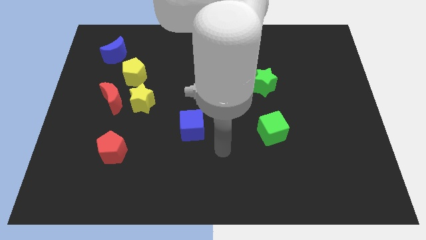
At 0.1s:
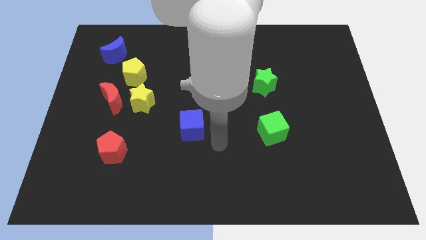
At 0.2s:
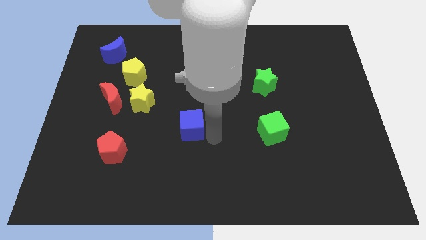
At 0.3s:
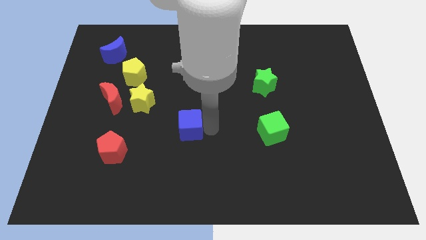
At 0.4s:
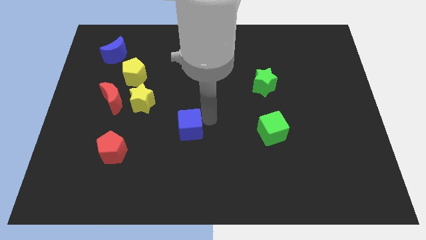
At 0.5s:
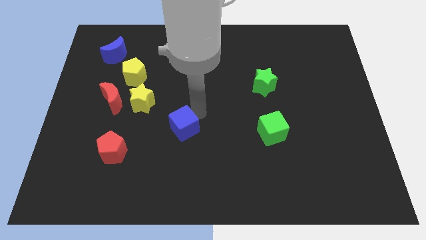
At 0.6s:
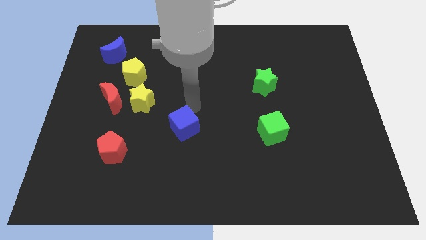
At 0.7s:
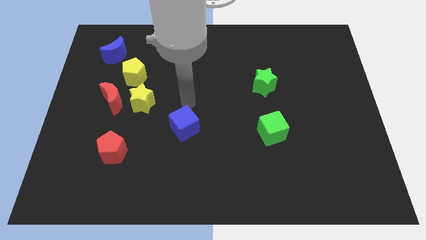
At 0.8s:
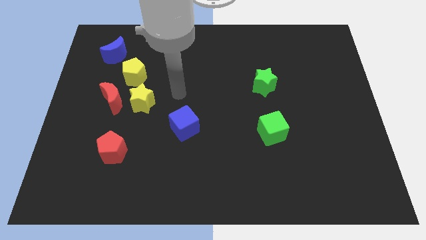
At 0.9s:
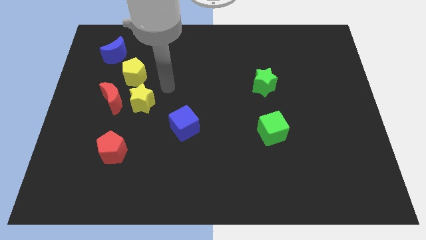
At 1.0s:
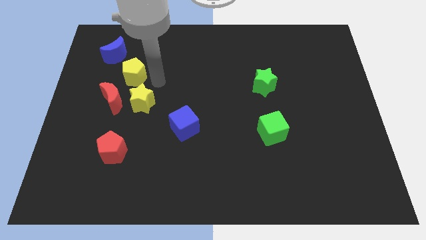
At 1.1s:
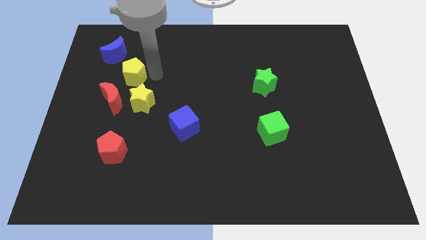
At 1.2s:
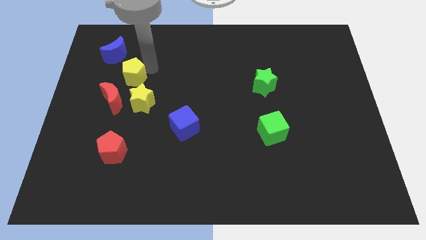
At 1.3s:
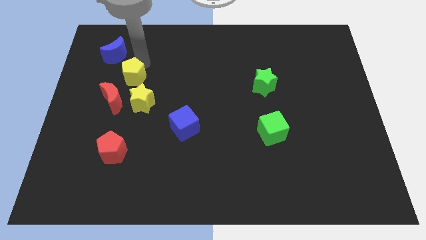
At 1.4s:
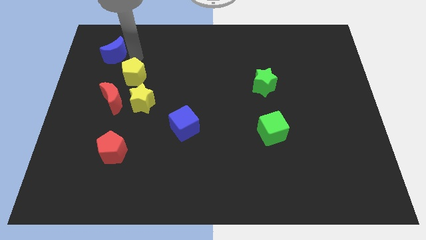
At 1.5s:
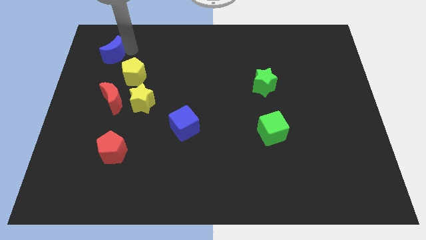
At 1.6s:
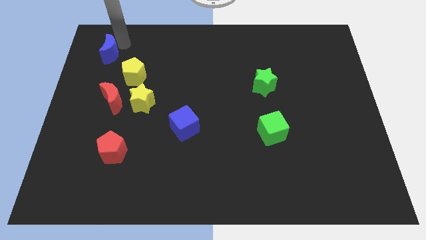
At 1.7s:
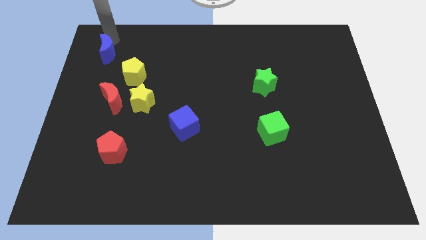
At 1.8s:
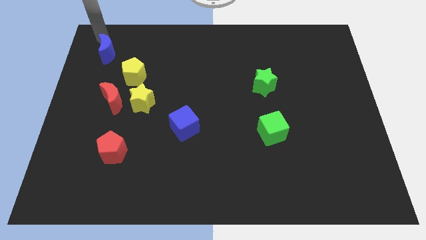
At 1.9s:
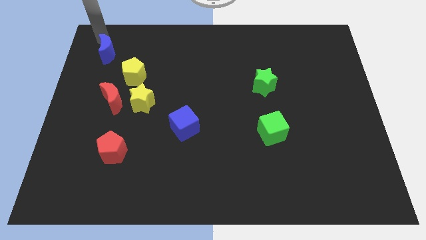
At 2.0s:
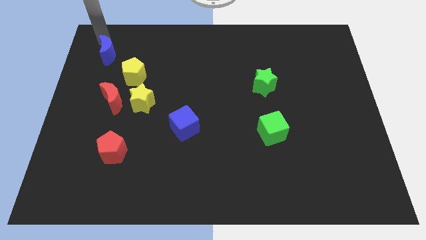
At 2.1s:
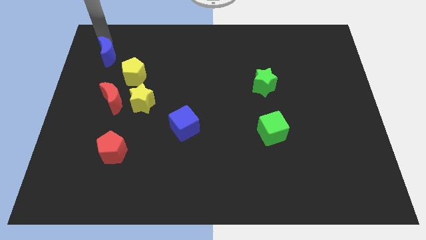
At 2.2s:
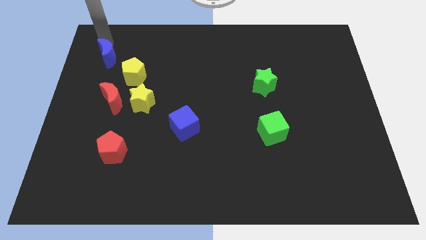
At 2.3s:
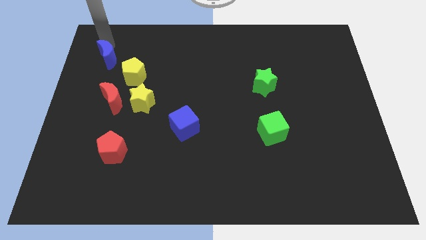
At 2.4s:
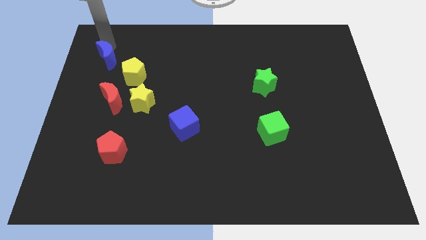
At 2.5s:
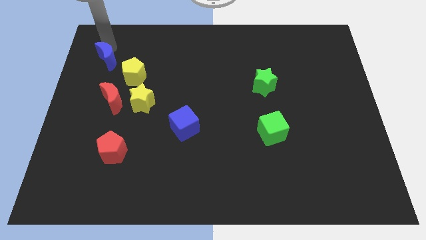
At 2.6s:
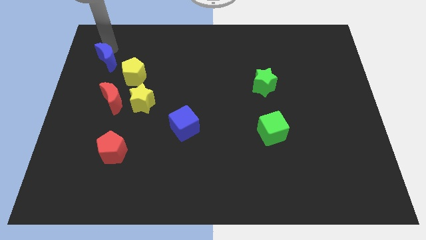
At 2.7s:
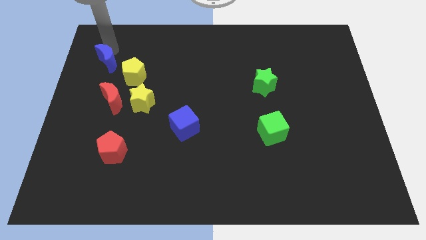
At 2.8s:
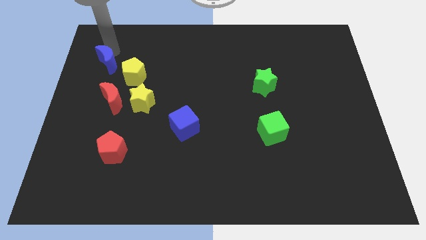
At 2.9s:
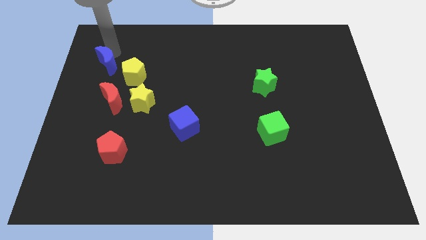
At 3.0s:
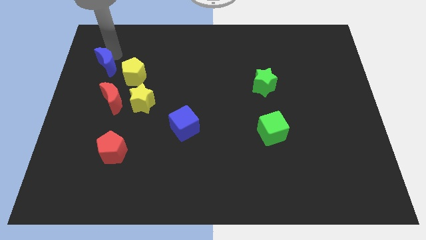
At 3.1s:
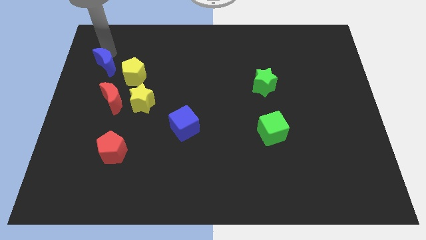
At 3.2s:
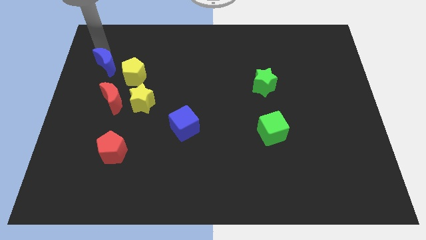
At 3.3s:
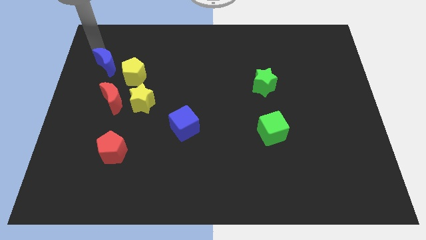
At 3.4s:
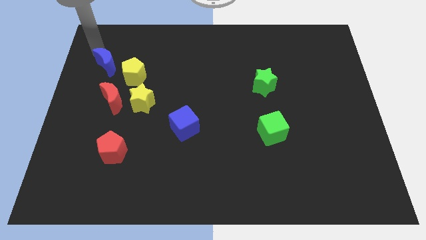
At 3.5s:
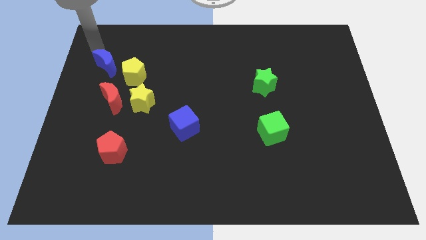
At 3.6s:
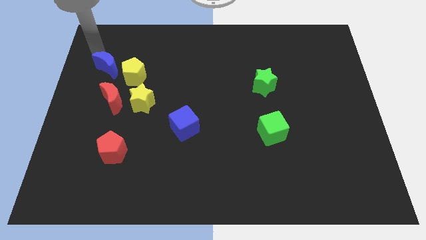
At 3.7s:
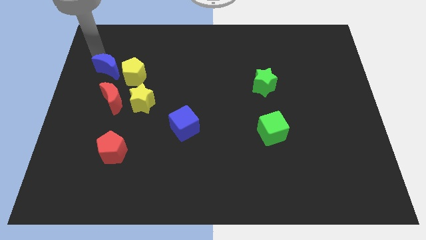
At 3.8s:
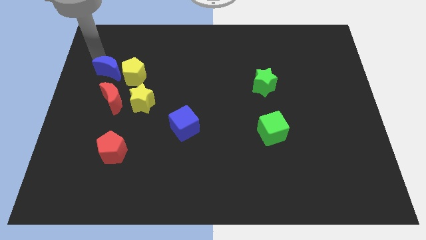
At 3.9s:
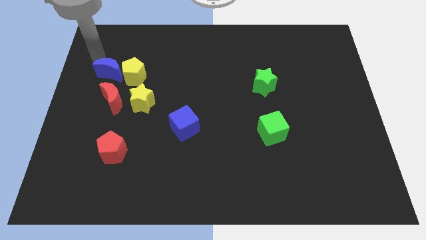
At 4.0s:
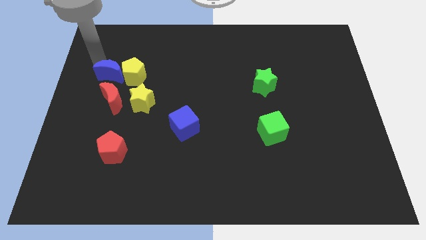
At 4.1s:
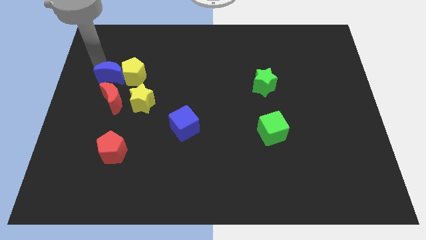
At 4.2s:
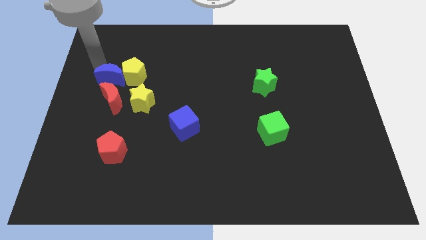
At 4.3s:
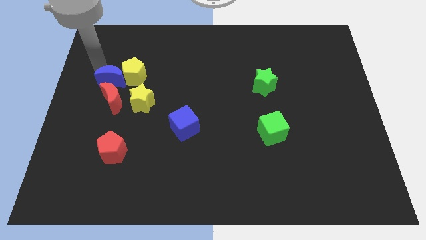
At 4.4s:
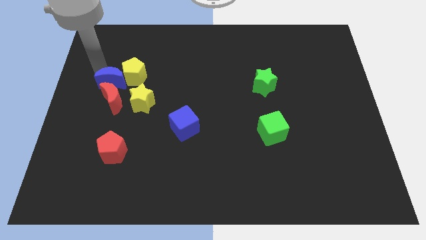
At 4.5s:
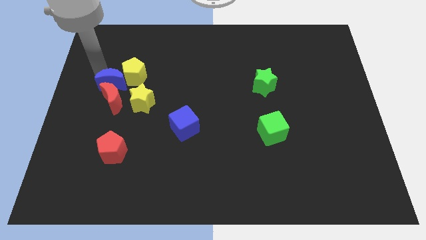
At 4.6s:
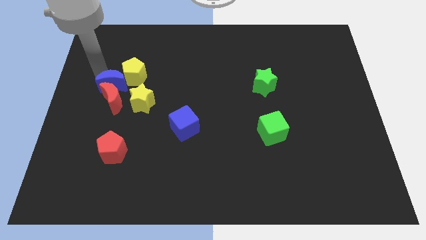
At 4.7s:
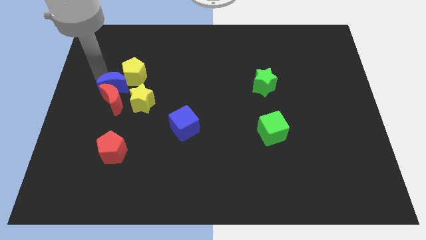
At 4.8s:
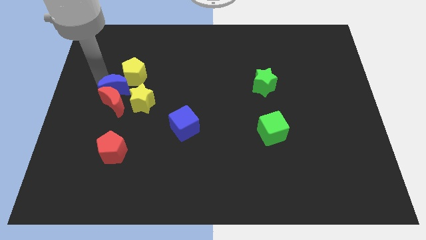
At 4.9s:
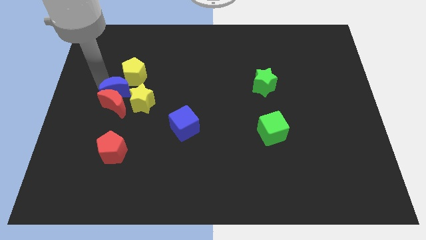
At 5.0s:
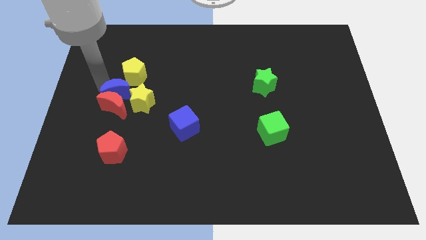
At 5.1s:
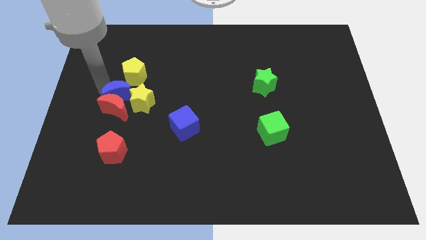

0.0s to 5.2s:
slide the blue moon next to the yellow star

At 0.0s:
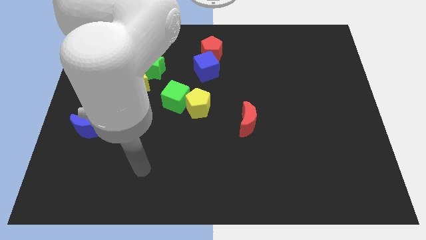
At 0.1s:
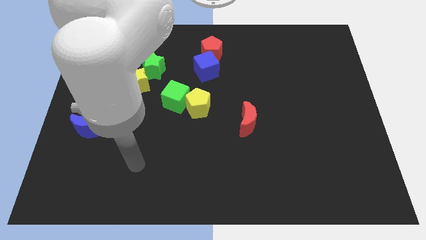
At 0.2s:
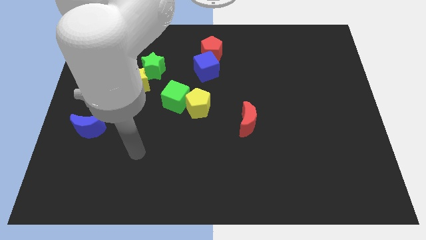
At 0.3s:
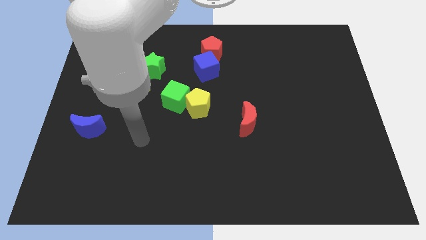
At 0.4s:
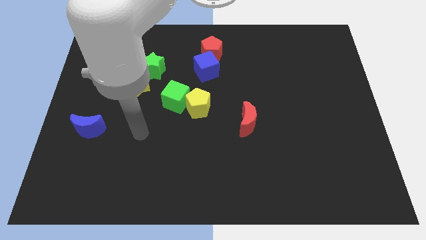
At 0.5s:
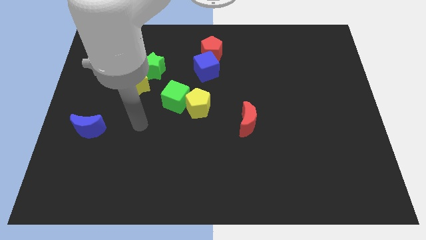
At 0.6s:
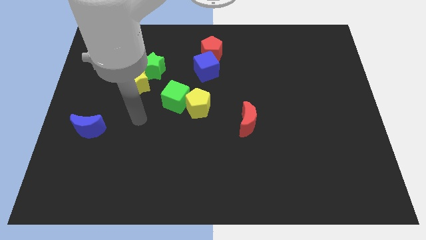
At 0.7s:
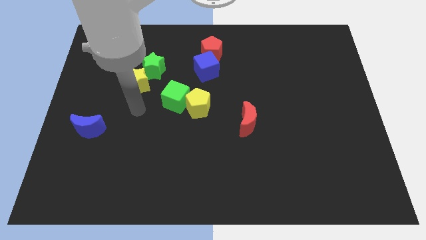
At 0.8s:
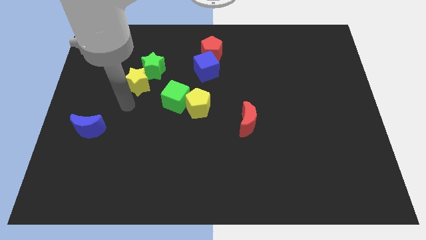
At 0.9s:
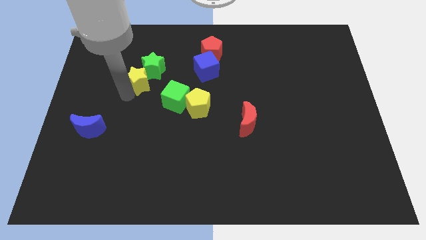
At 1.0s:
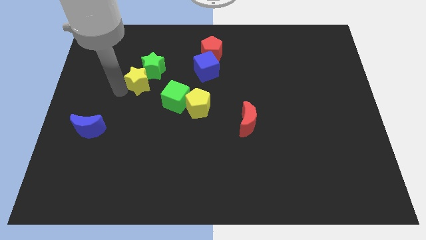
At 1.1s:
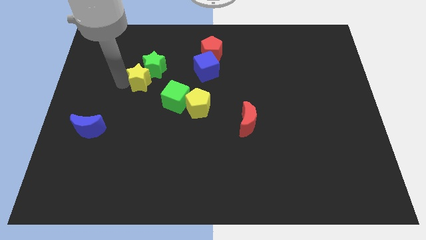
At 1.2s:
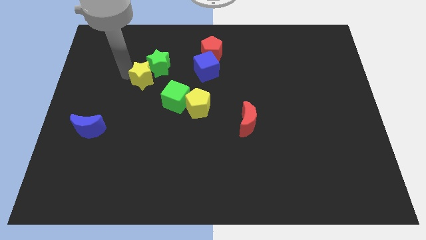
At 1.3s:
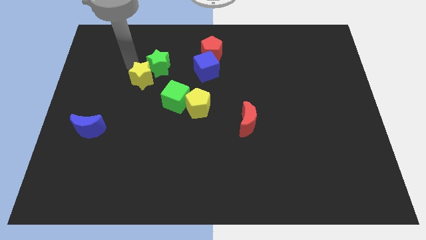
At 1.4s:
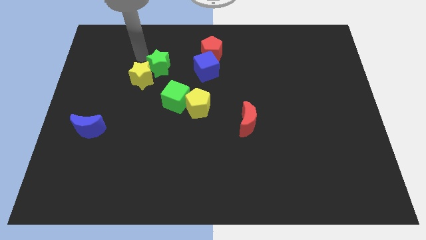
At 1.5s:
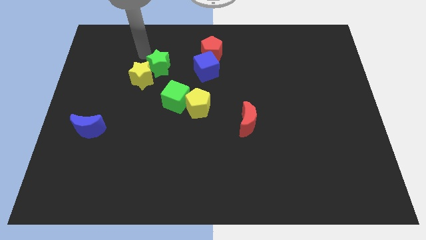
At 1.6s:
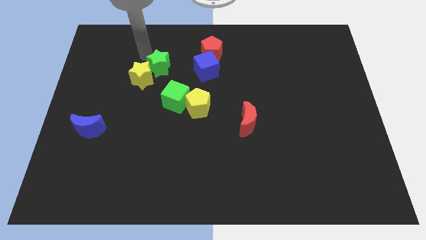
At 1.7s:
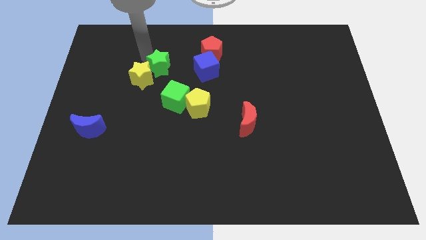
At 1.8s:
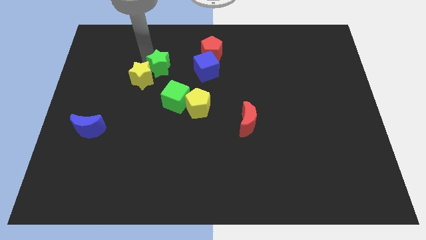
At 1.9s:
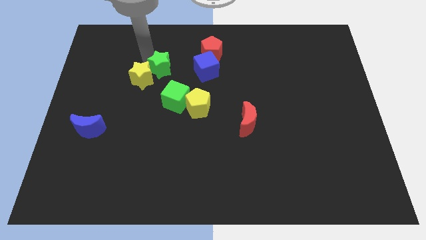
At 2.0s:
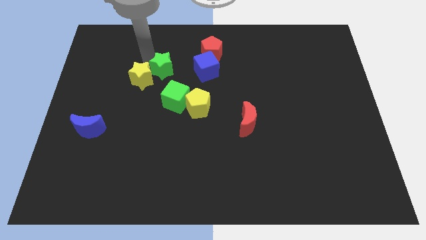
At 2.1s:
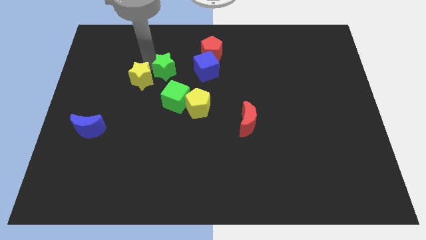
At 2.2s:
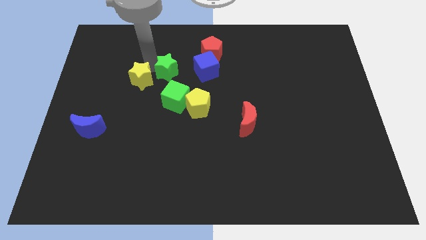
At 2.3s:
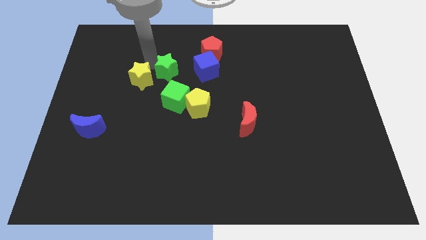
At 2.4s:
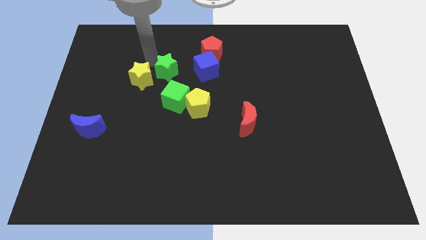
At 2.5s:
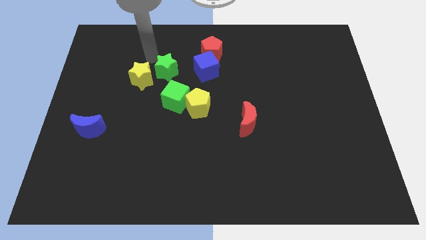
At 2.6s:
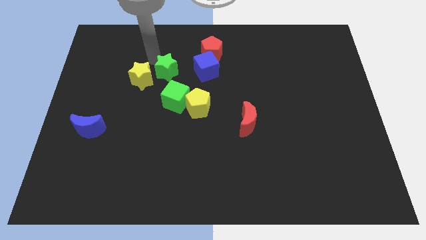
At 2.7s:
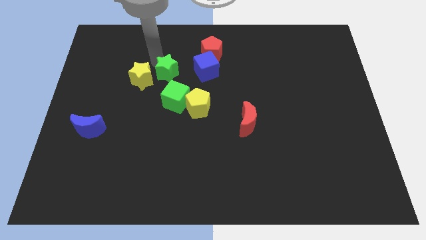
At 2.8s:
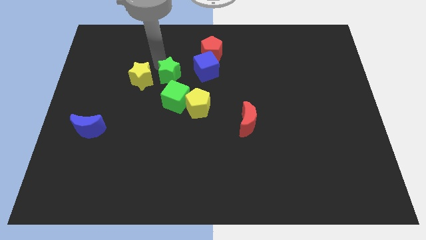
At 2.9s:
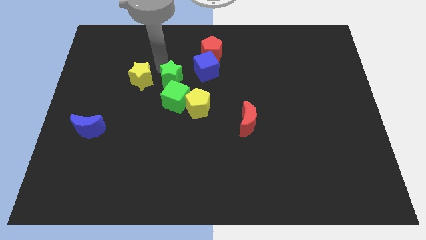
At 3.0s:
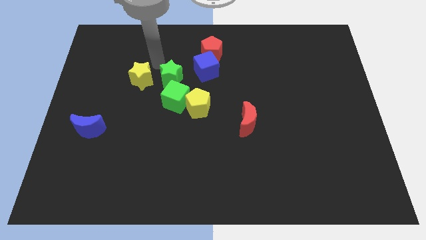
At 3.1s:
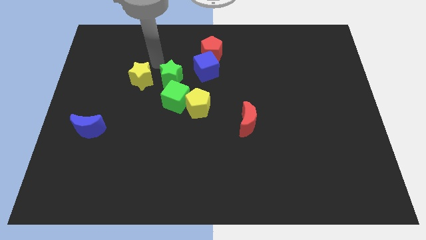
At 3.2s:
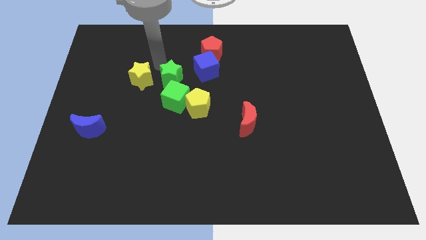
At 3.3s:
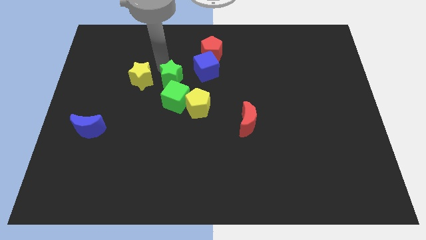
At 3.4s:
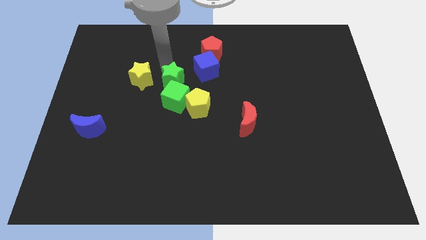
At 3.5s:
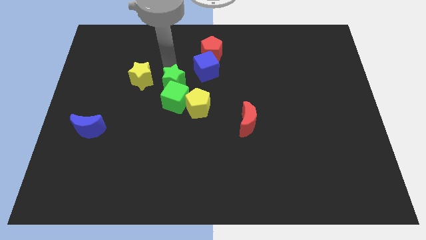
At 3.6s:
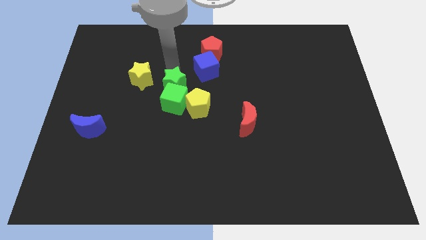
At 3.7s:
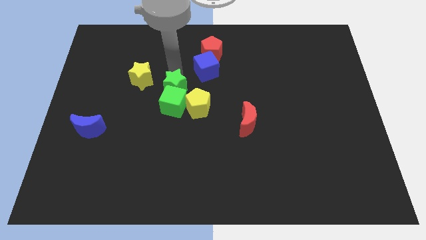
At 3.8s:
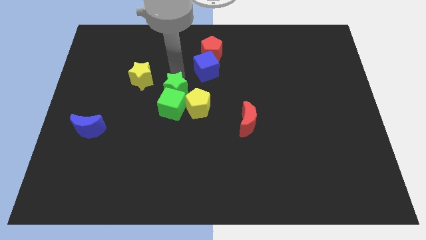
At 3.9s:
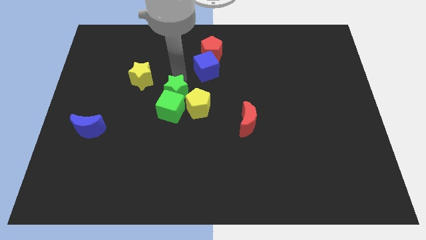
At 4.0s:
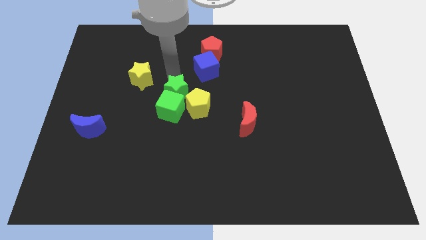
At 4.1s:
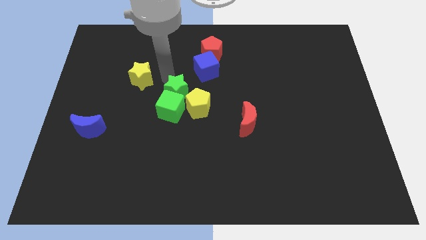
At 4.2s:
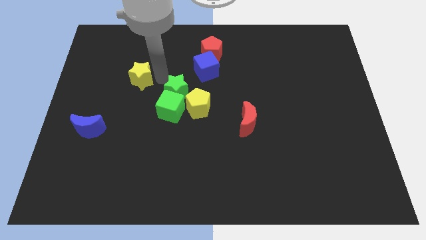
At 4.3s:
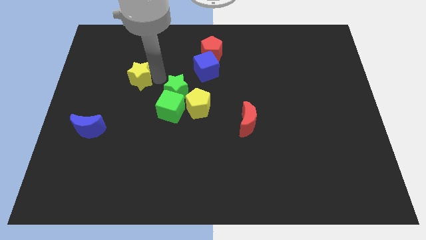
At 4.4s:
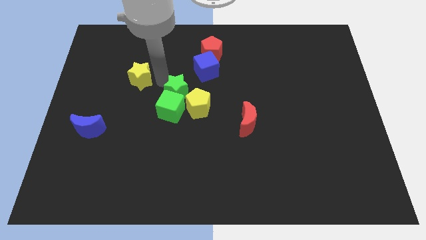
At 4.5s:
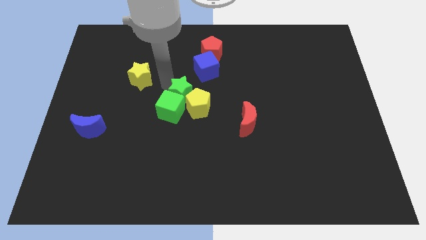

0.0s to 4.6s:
put the green star close to the yellow pentagon
